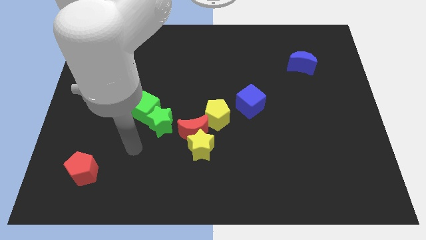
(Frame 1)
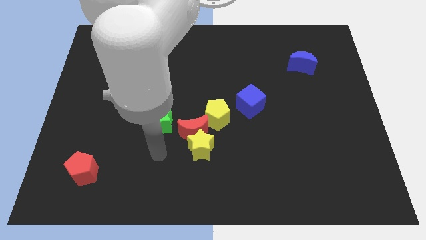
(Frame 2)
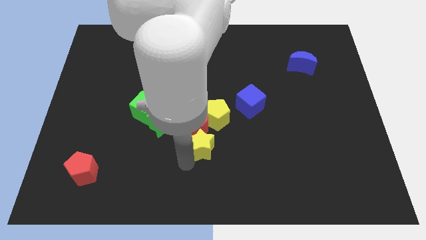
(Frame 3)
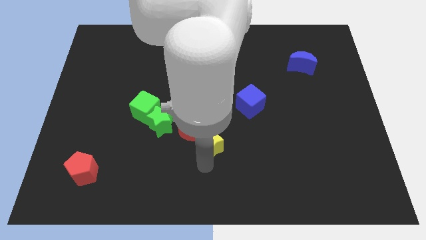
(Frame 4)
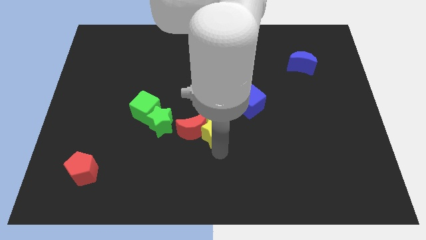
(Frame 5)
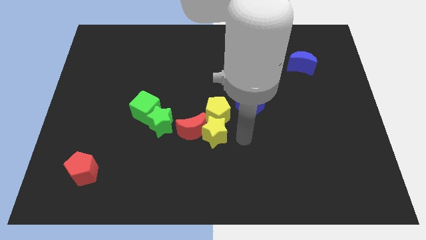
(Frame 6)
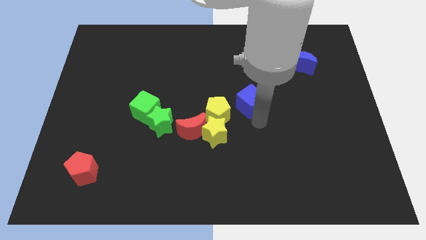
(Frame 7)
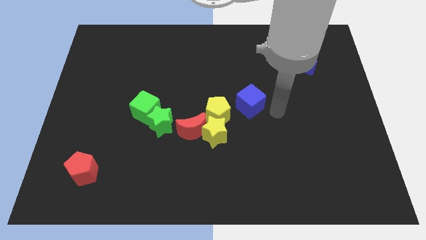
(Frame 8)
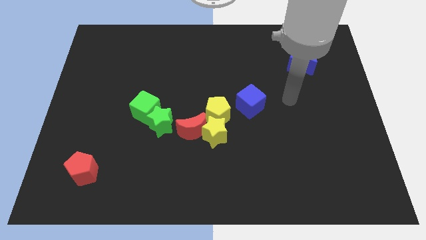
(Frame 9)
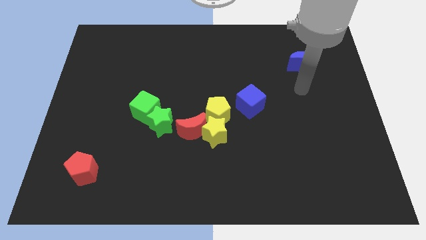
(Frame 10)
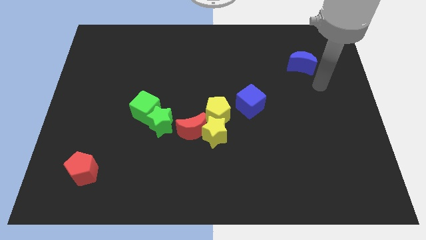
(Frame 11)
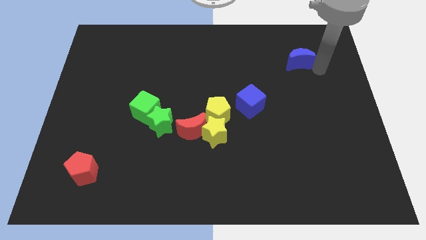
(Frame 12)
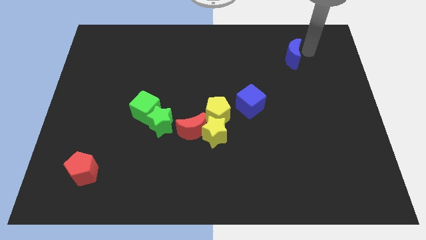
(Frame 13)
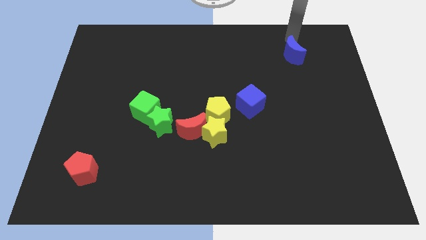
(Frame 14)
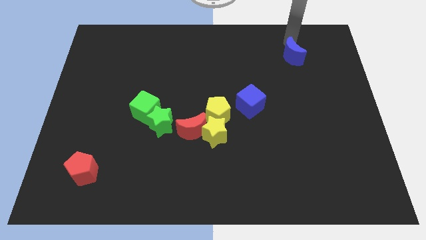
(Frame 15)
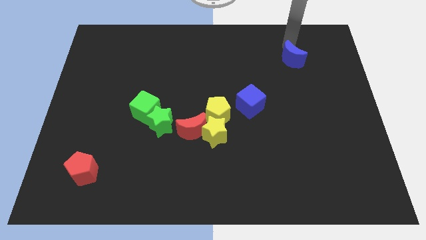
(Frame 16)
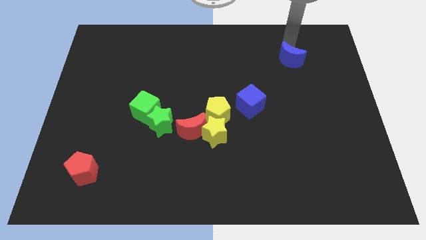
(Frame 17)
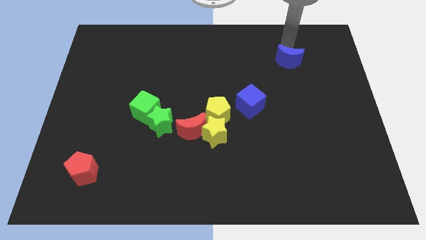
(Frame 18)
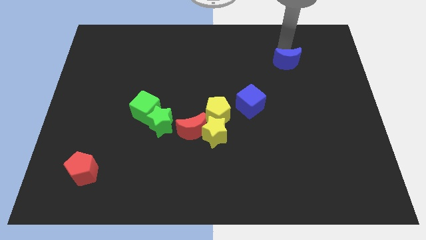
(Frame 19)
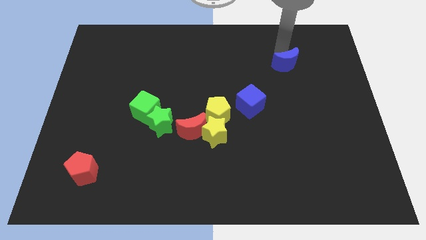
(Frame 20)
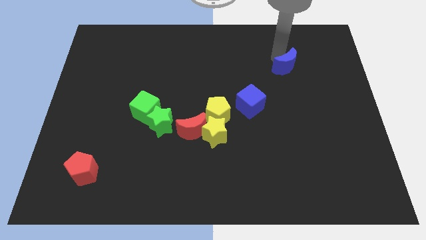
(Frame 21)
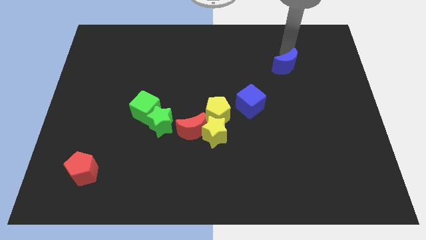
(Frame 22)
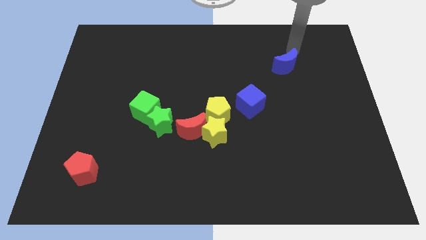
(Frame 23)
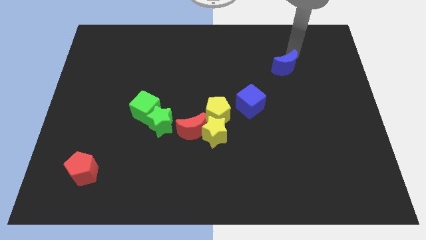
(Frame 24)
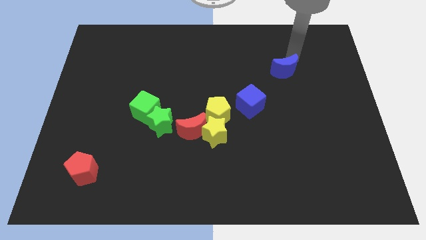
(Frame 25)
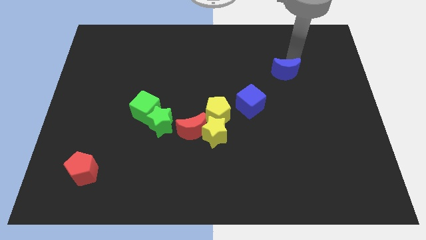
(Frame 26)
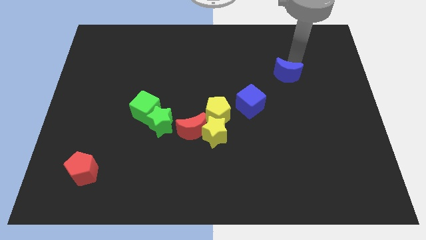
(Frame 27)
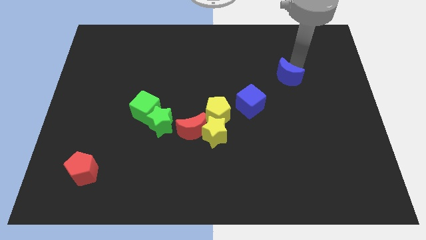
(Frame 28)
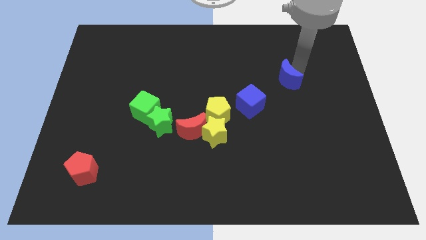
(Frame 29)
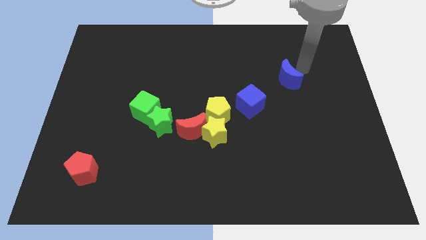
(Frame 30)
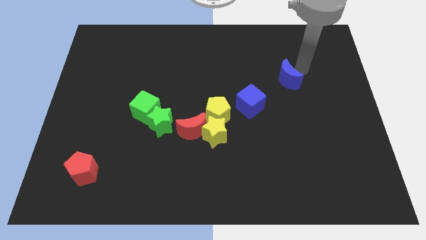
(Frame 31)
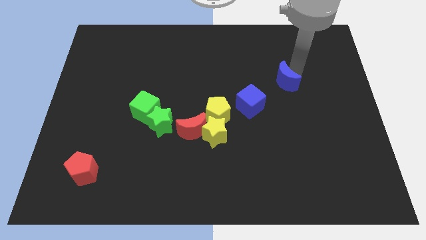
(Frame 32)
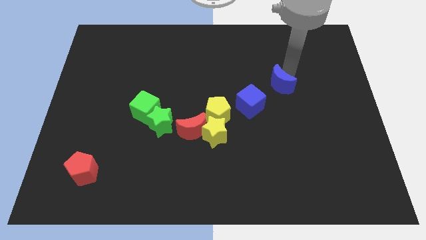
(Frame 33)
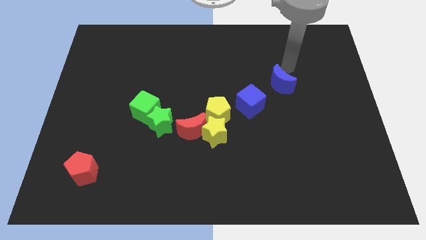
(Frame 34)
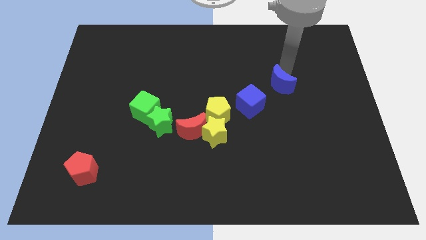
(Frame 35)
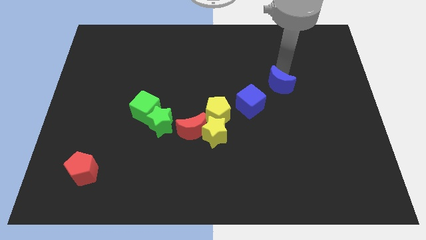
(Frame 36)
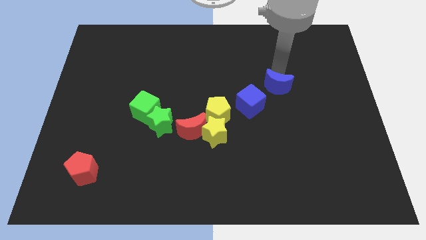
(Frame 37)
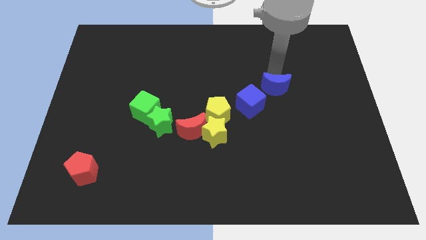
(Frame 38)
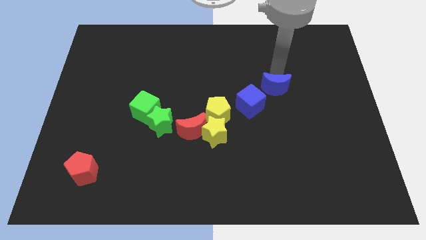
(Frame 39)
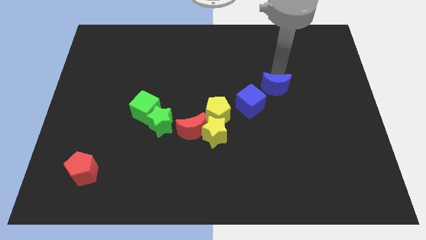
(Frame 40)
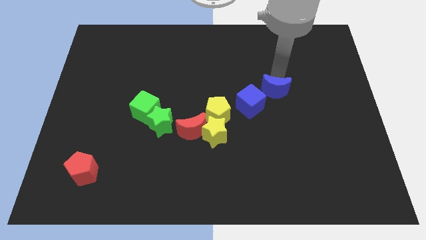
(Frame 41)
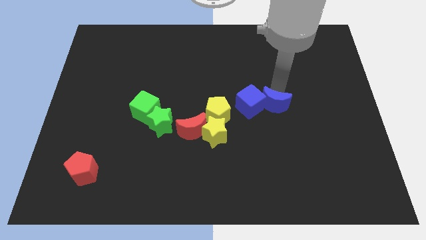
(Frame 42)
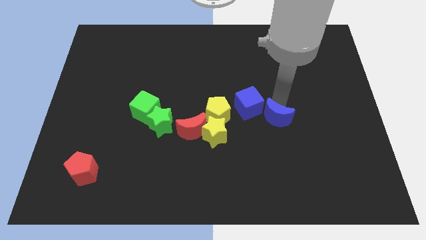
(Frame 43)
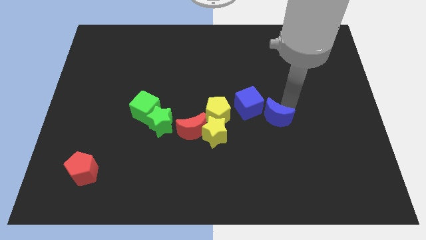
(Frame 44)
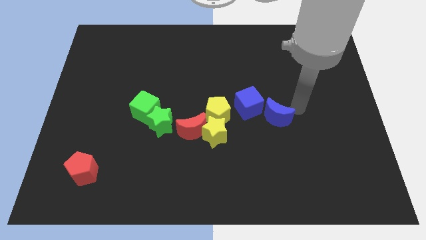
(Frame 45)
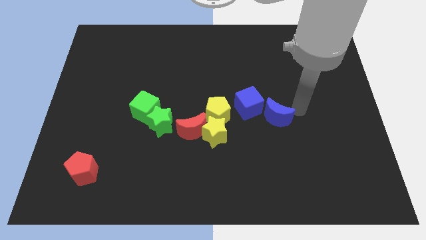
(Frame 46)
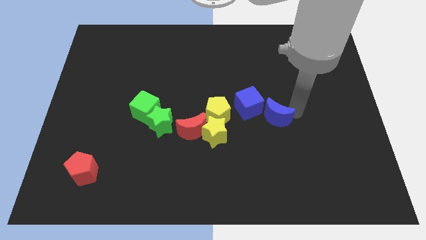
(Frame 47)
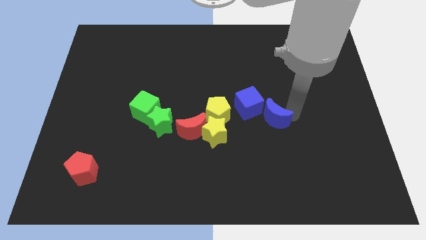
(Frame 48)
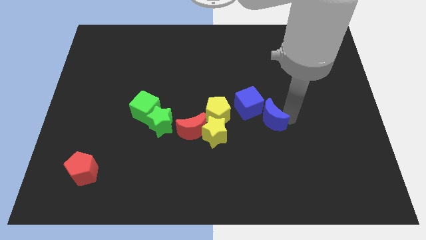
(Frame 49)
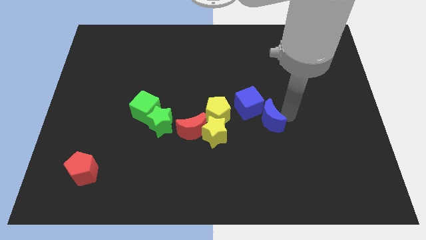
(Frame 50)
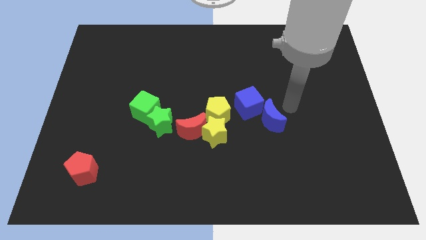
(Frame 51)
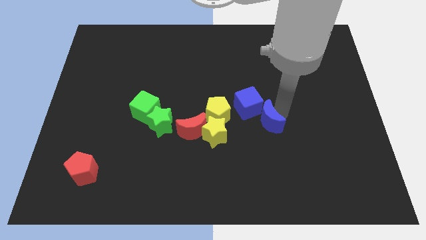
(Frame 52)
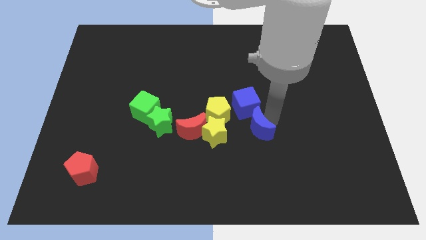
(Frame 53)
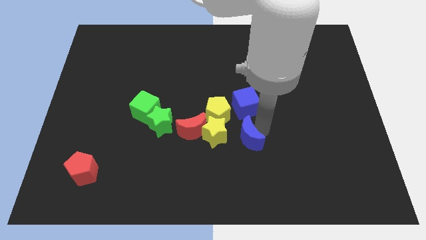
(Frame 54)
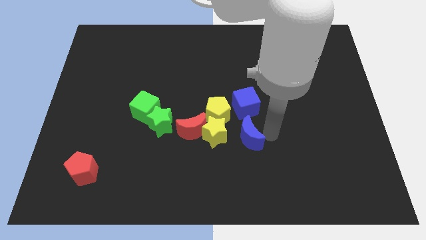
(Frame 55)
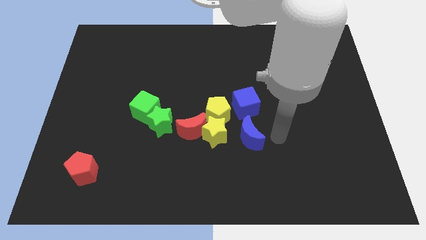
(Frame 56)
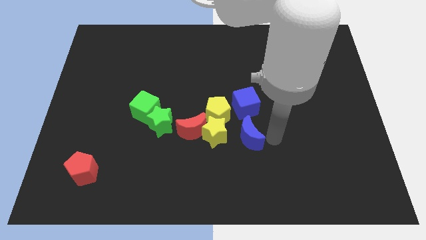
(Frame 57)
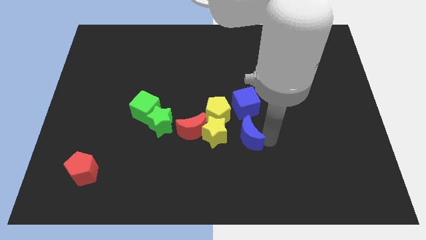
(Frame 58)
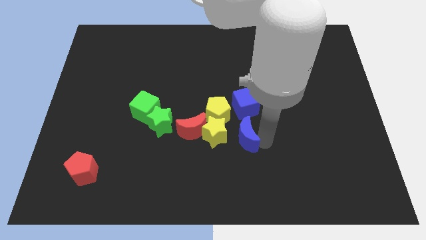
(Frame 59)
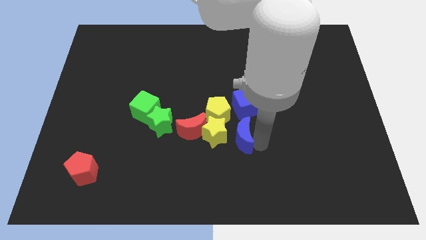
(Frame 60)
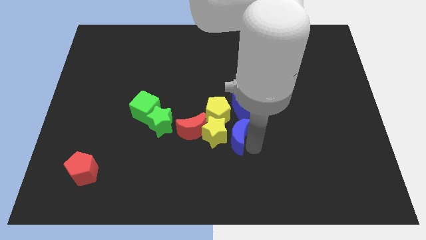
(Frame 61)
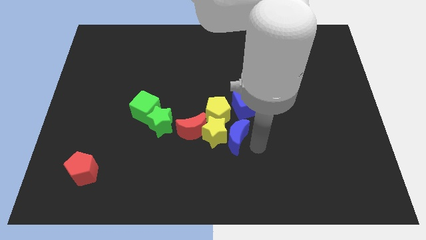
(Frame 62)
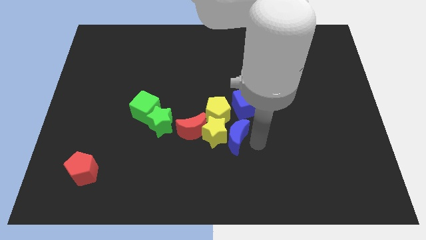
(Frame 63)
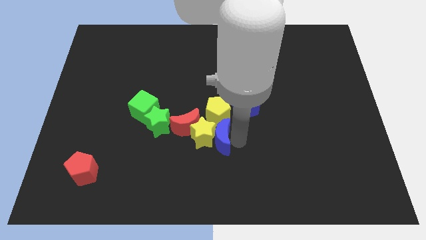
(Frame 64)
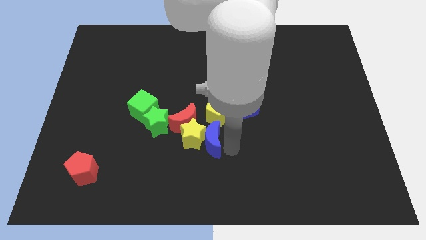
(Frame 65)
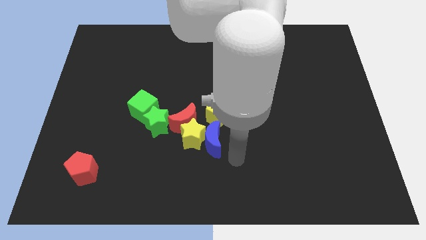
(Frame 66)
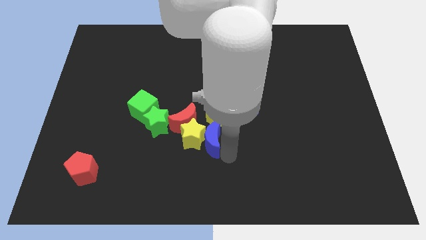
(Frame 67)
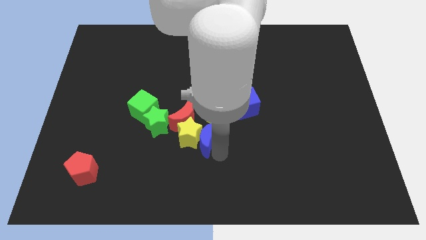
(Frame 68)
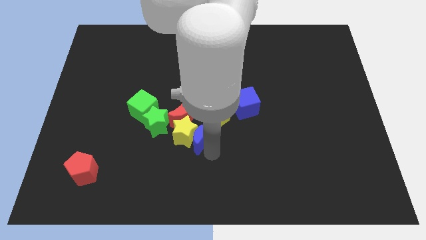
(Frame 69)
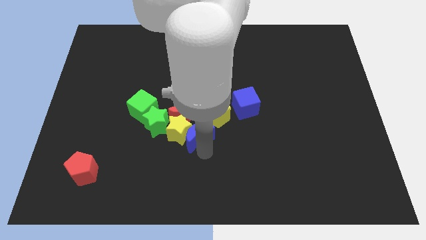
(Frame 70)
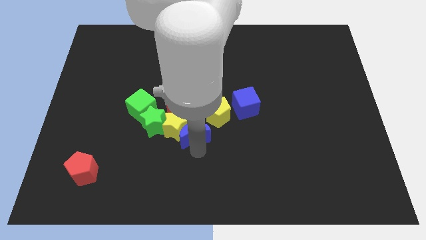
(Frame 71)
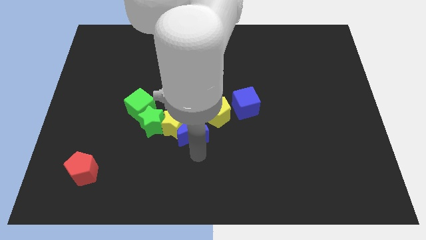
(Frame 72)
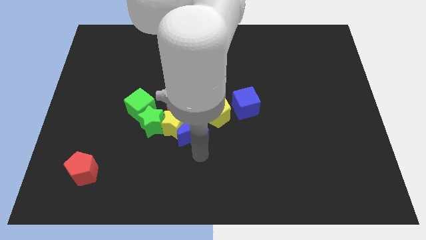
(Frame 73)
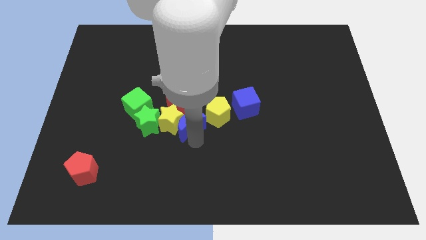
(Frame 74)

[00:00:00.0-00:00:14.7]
push the blue moon next to the red moon

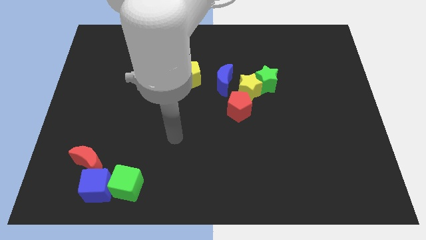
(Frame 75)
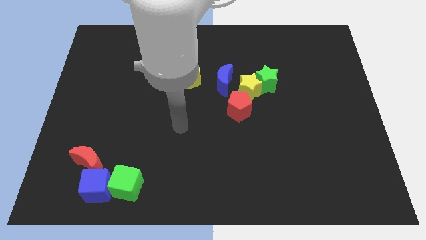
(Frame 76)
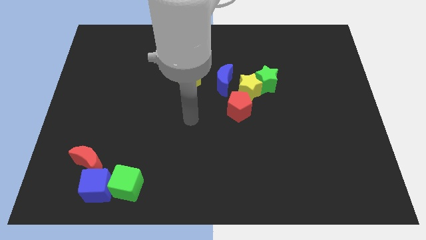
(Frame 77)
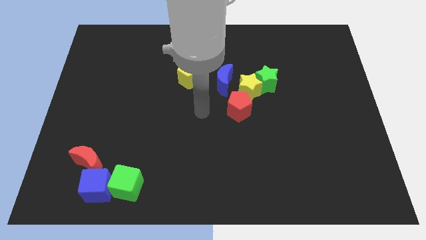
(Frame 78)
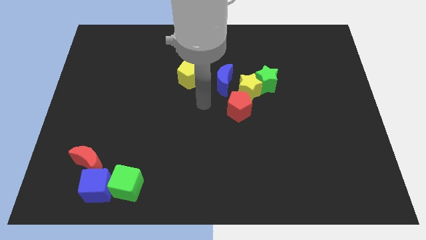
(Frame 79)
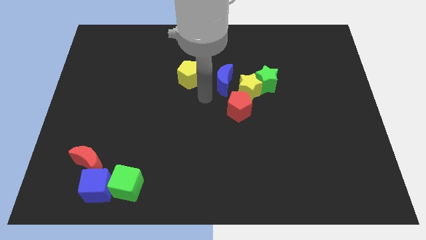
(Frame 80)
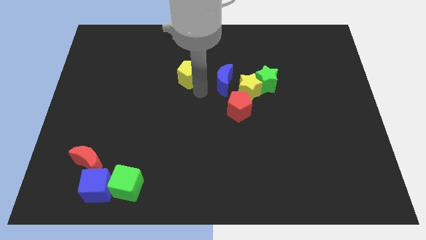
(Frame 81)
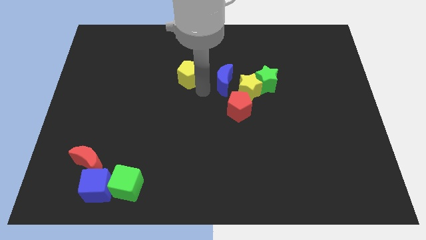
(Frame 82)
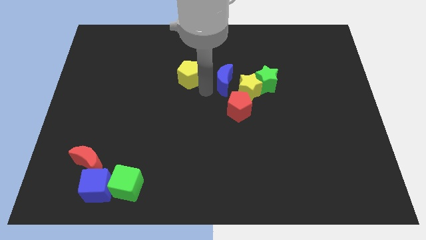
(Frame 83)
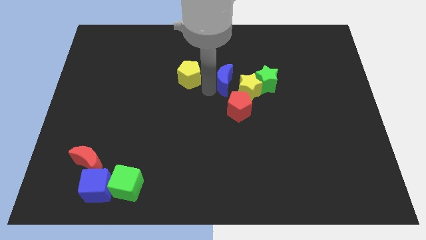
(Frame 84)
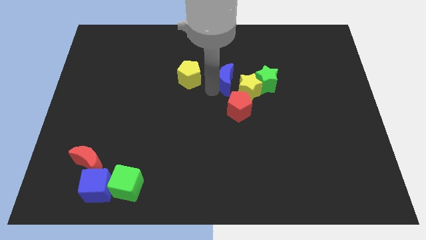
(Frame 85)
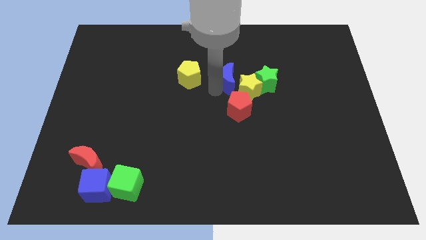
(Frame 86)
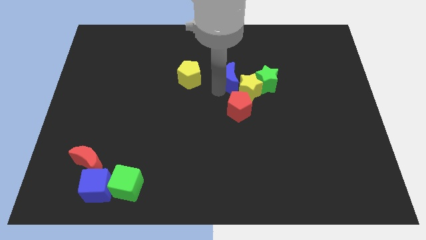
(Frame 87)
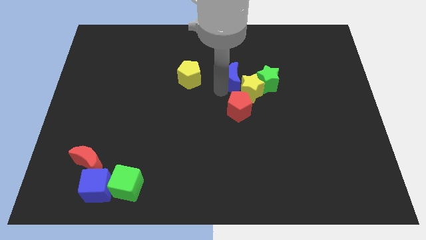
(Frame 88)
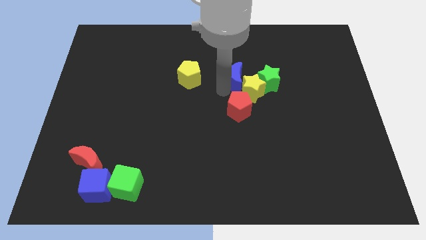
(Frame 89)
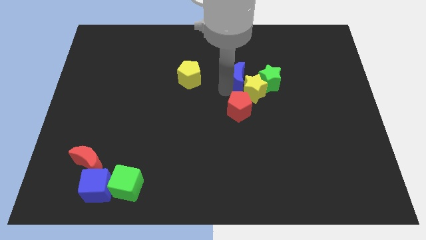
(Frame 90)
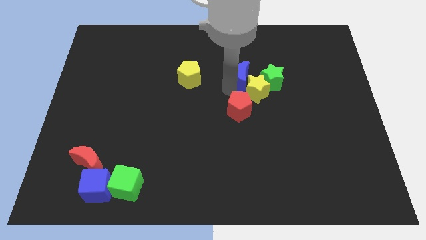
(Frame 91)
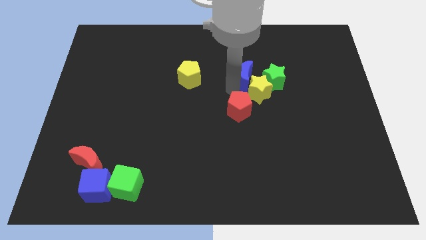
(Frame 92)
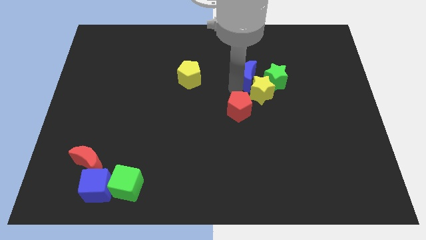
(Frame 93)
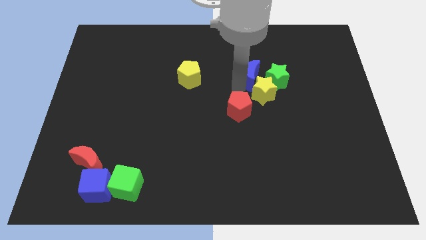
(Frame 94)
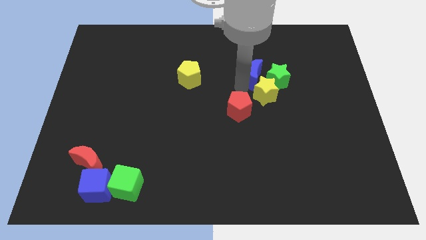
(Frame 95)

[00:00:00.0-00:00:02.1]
move the blue moon next to the green star
